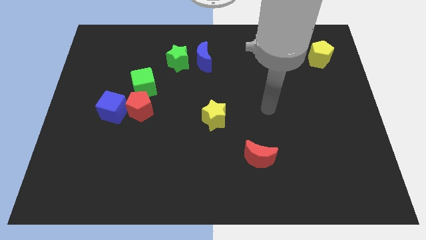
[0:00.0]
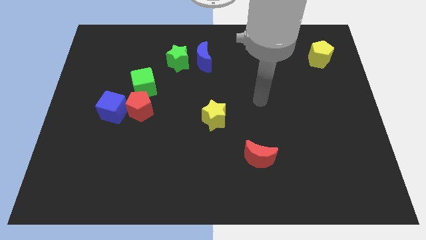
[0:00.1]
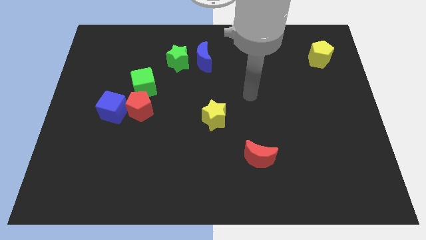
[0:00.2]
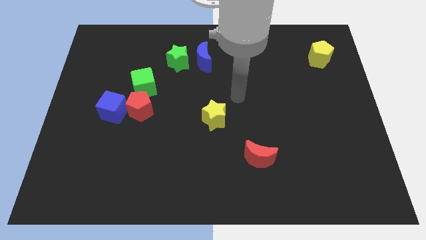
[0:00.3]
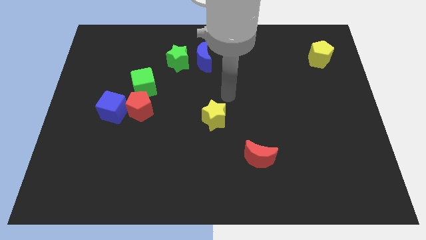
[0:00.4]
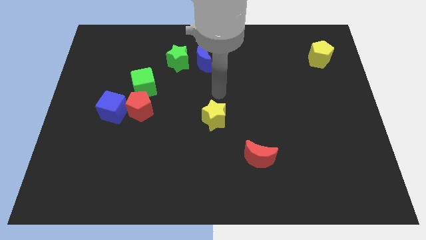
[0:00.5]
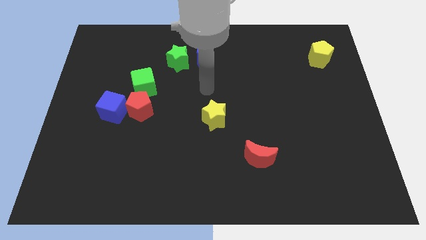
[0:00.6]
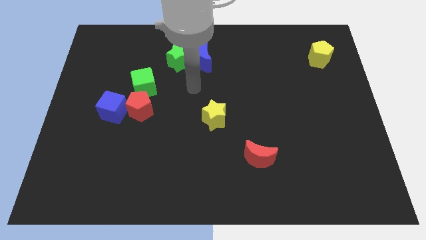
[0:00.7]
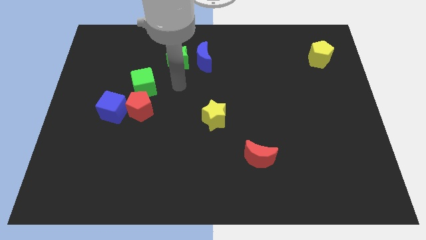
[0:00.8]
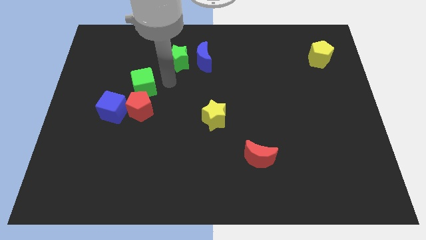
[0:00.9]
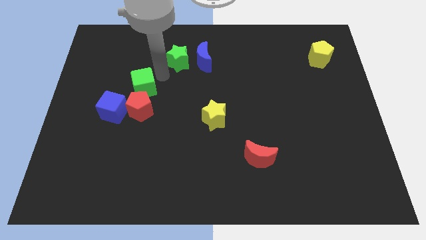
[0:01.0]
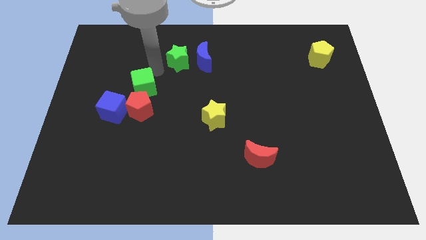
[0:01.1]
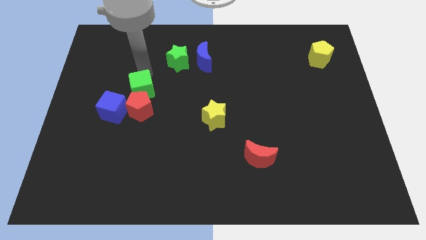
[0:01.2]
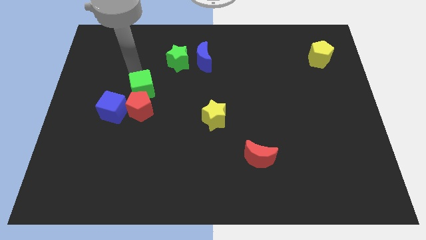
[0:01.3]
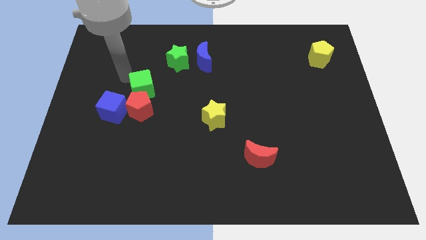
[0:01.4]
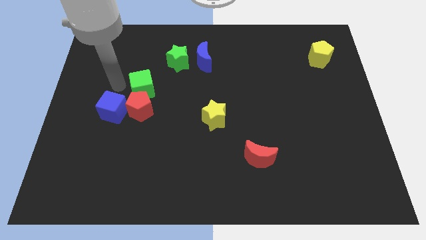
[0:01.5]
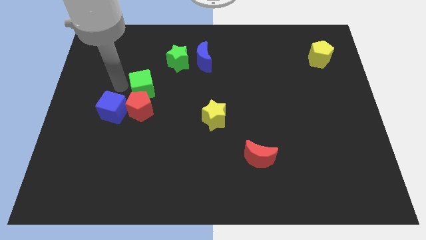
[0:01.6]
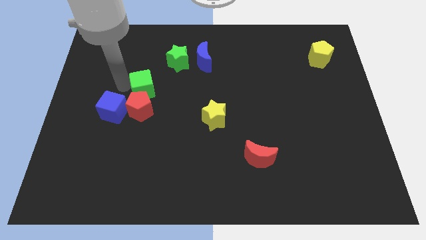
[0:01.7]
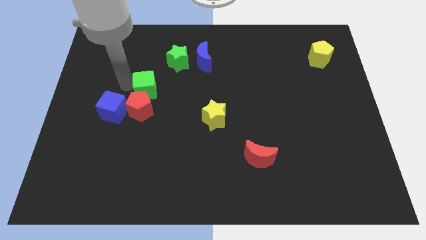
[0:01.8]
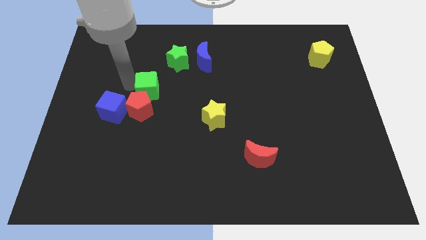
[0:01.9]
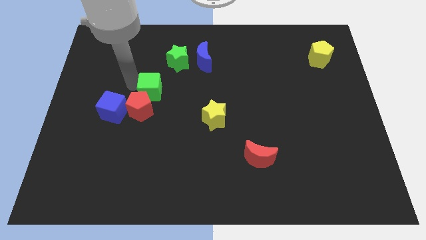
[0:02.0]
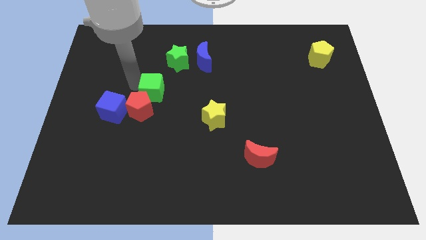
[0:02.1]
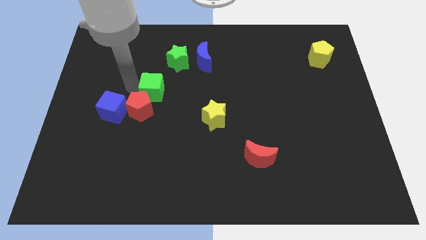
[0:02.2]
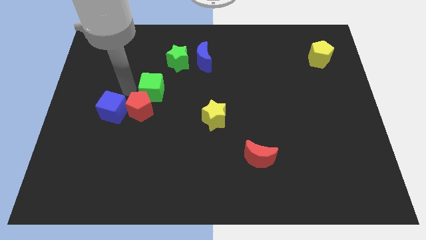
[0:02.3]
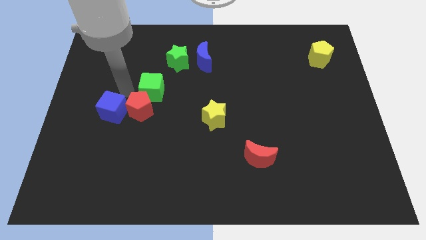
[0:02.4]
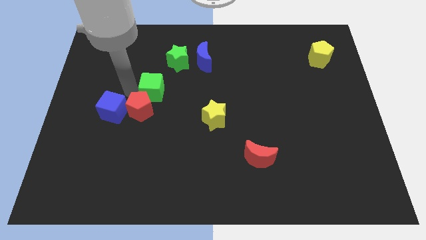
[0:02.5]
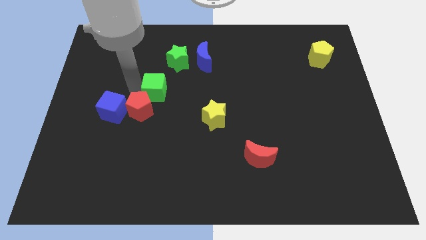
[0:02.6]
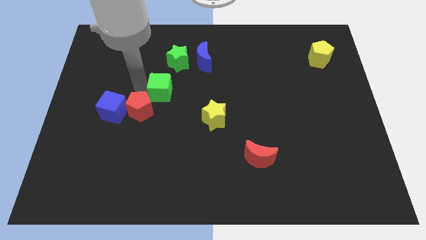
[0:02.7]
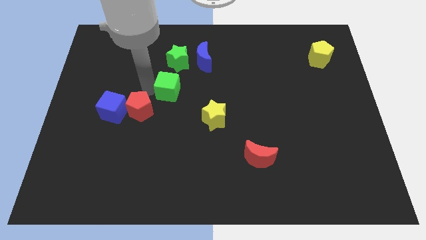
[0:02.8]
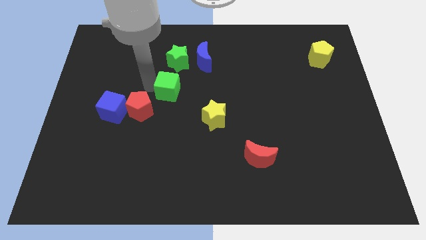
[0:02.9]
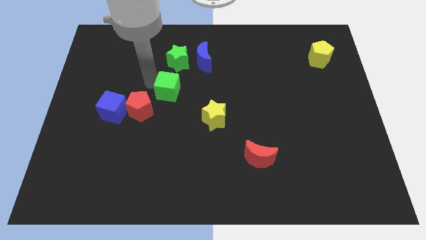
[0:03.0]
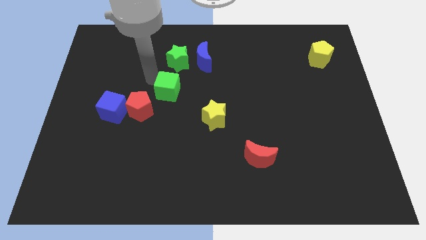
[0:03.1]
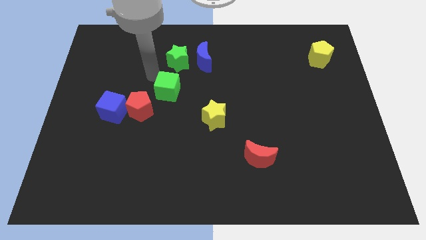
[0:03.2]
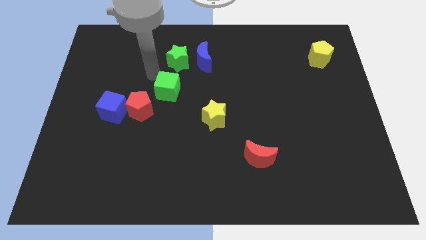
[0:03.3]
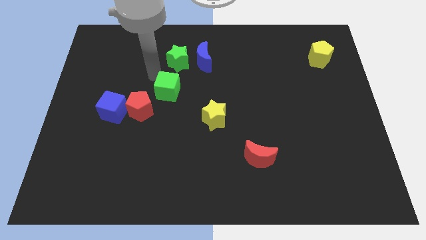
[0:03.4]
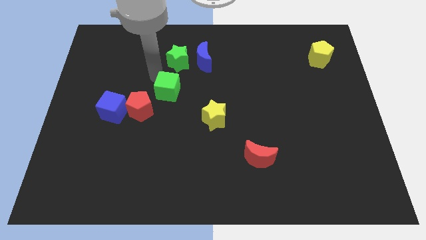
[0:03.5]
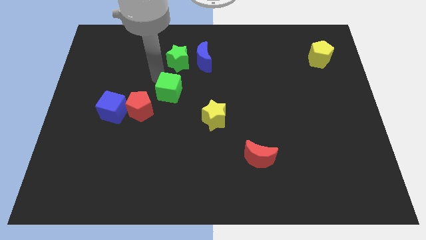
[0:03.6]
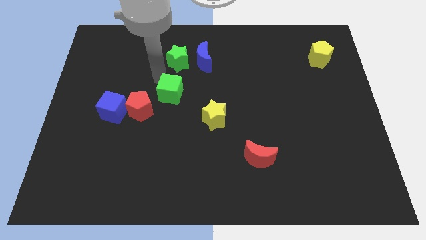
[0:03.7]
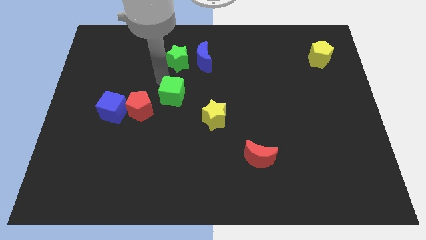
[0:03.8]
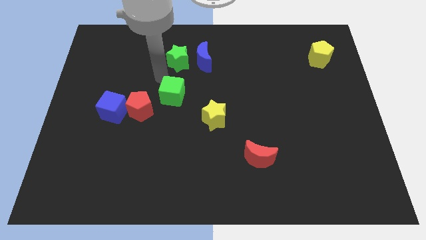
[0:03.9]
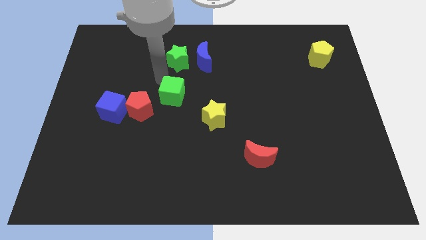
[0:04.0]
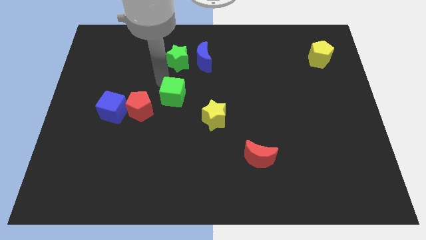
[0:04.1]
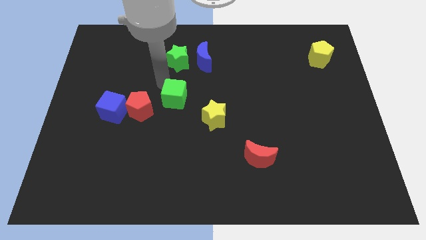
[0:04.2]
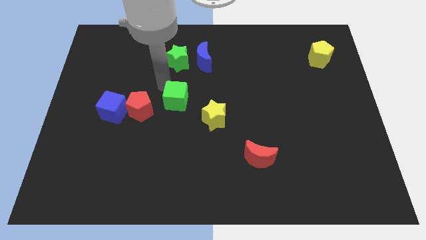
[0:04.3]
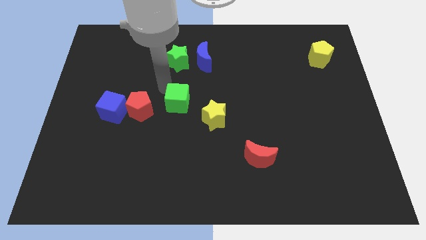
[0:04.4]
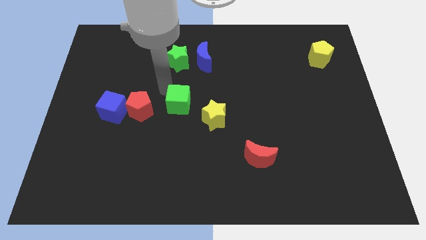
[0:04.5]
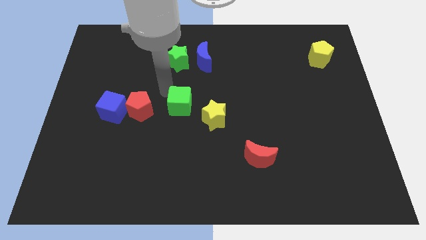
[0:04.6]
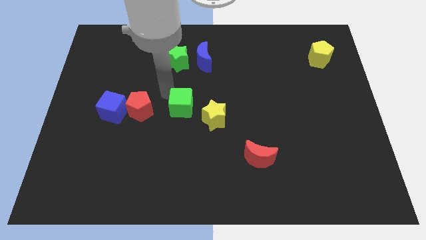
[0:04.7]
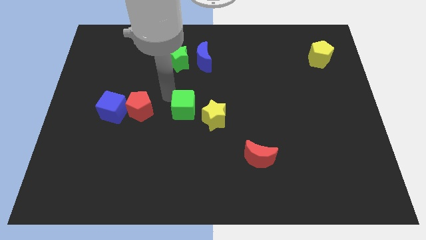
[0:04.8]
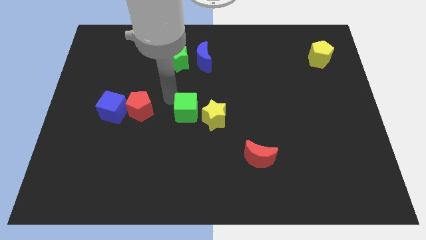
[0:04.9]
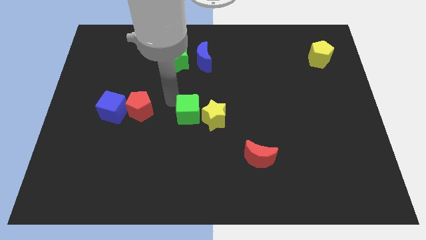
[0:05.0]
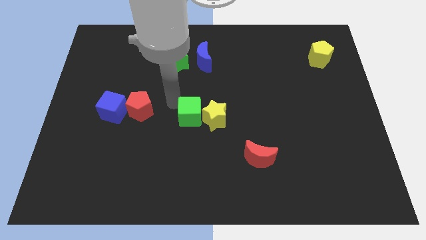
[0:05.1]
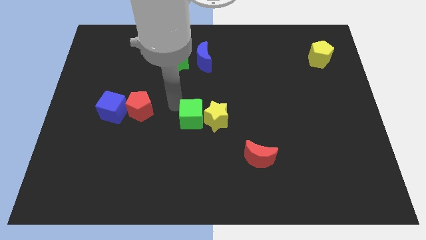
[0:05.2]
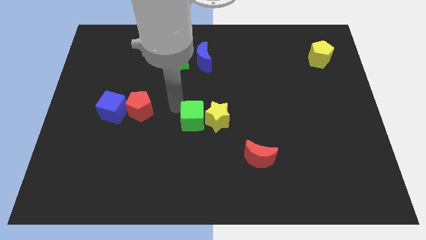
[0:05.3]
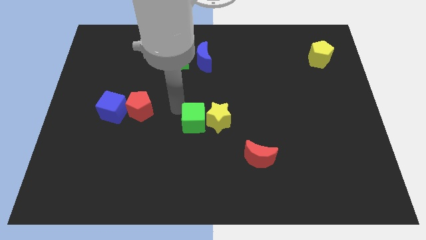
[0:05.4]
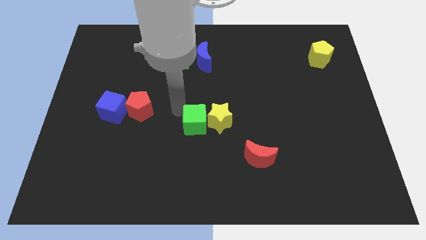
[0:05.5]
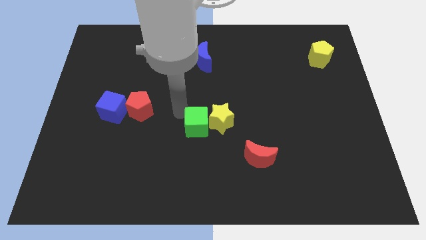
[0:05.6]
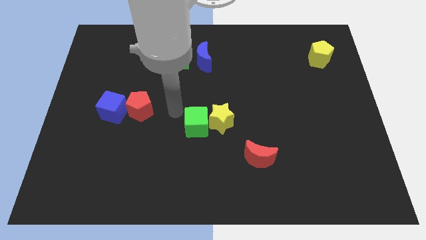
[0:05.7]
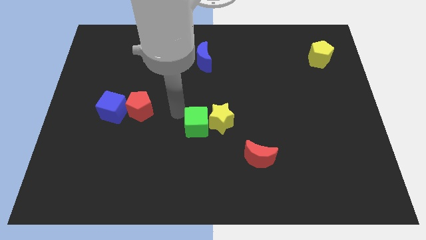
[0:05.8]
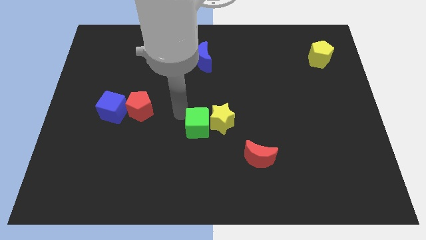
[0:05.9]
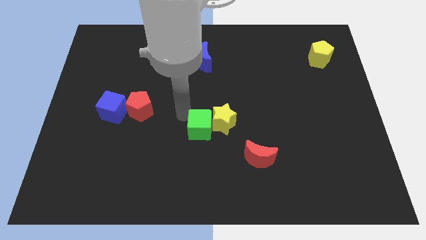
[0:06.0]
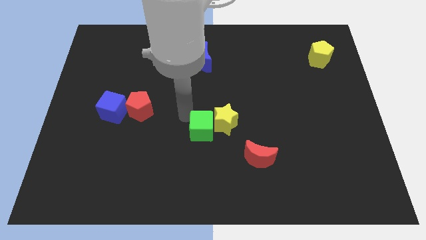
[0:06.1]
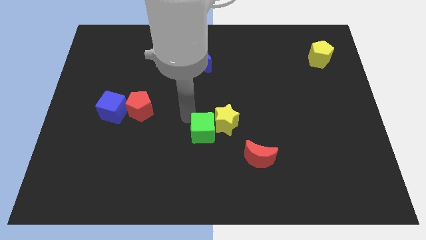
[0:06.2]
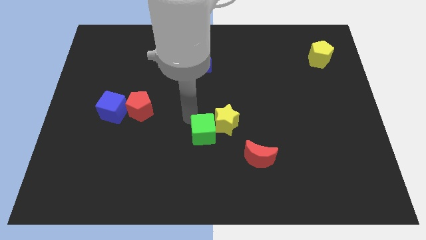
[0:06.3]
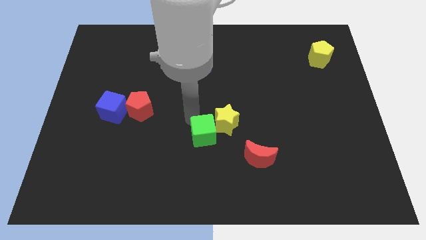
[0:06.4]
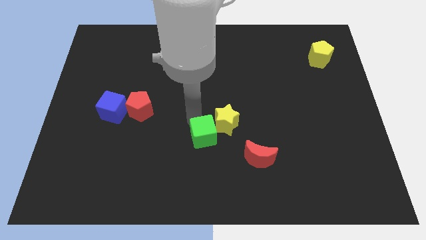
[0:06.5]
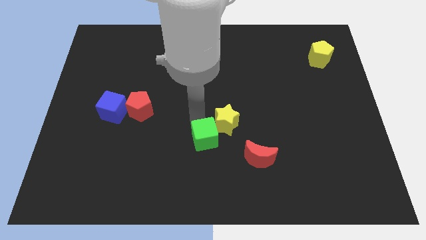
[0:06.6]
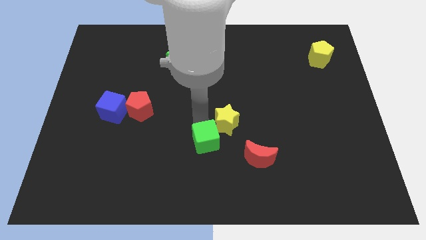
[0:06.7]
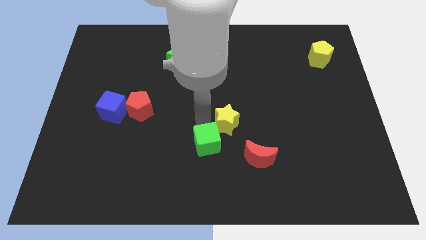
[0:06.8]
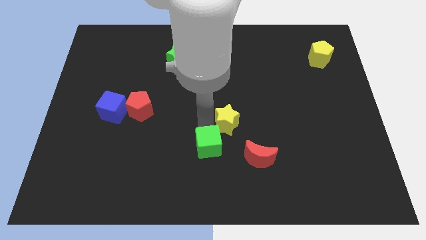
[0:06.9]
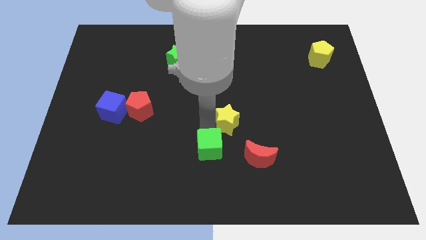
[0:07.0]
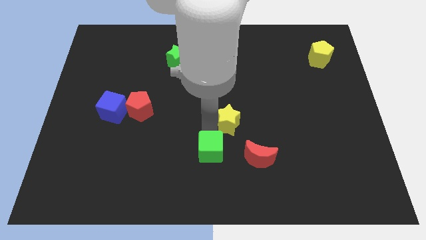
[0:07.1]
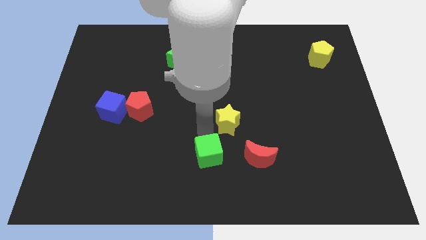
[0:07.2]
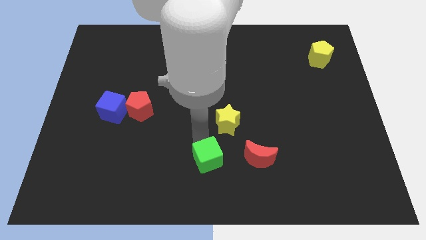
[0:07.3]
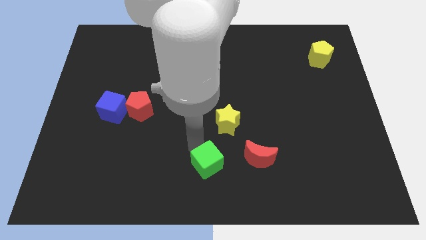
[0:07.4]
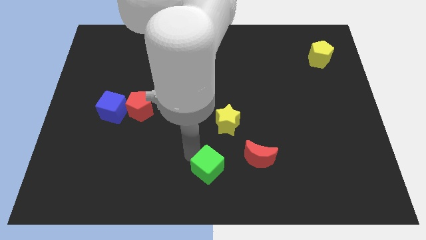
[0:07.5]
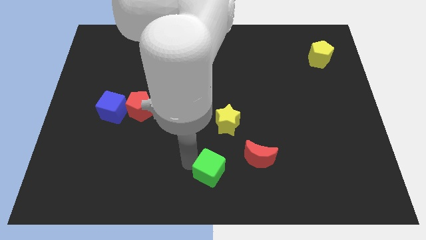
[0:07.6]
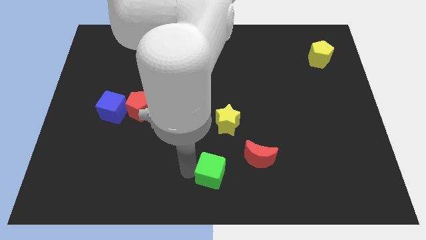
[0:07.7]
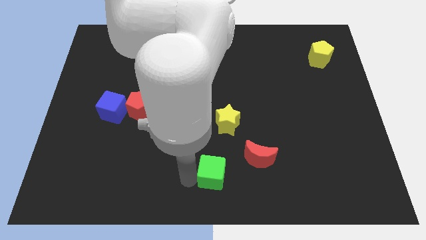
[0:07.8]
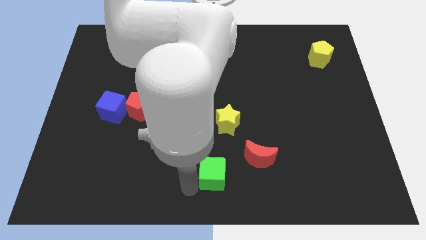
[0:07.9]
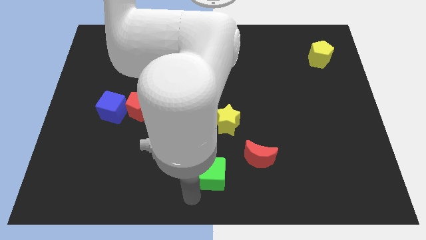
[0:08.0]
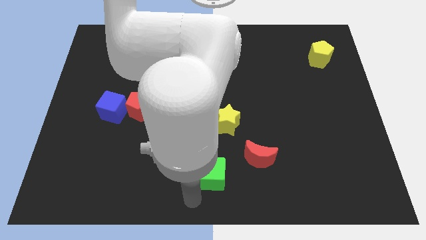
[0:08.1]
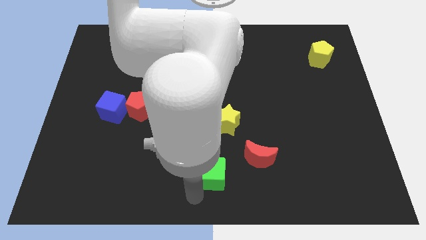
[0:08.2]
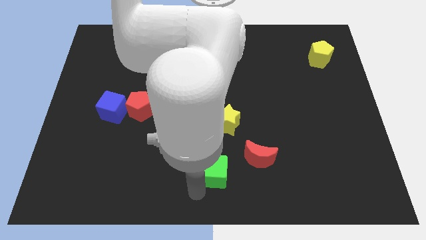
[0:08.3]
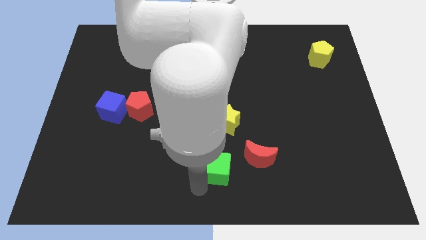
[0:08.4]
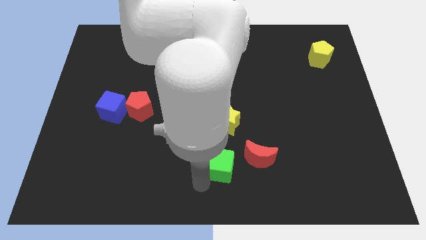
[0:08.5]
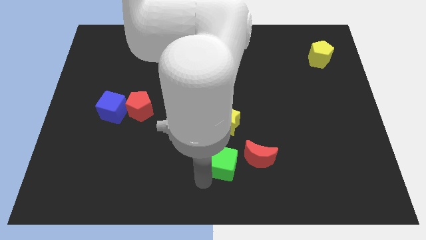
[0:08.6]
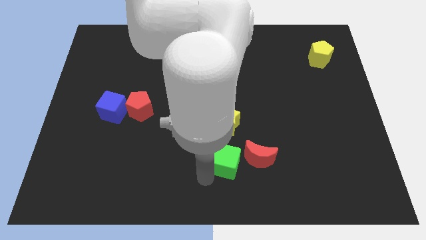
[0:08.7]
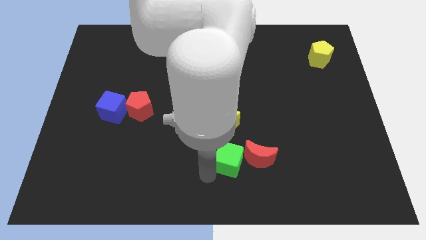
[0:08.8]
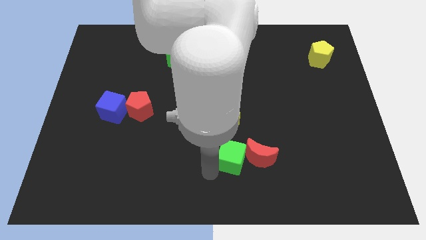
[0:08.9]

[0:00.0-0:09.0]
move the green cube towards the red moon
